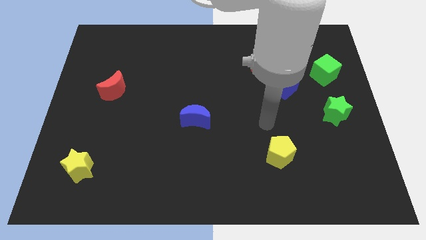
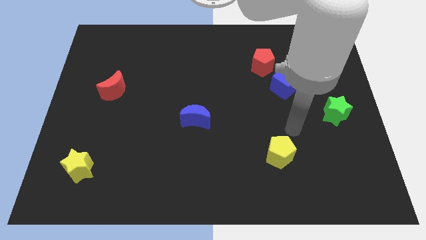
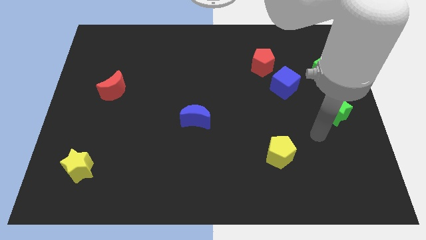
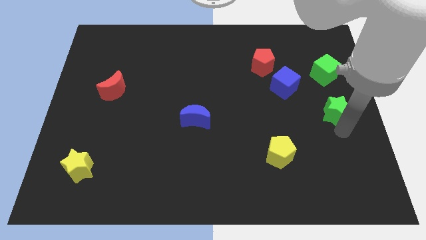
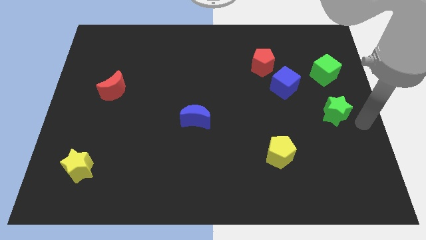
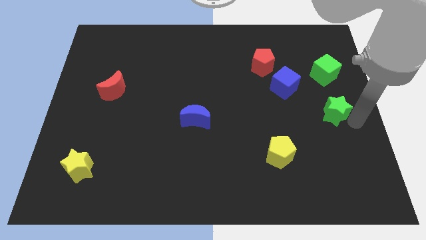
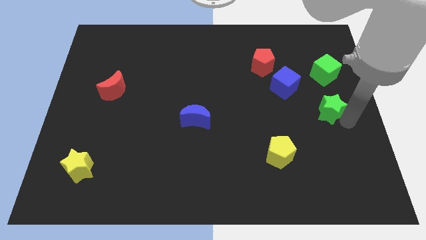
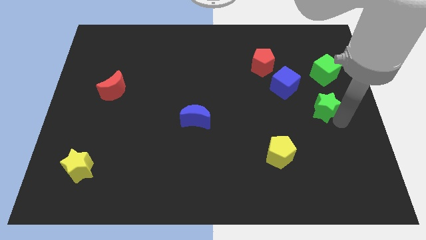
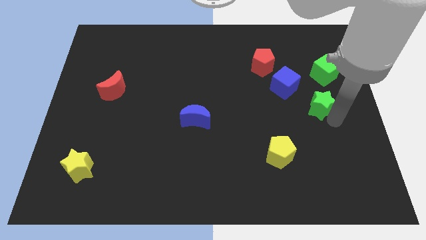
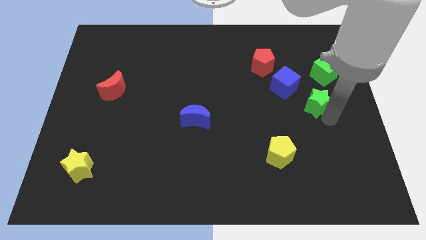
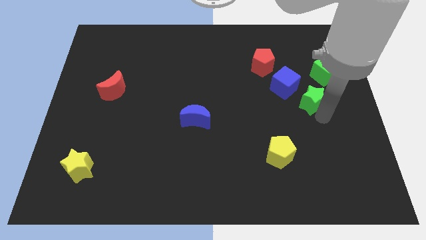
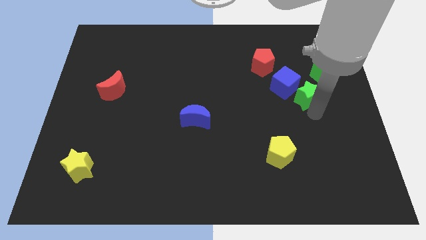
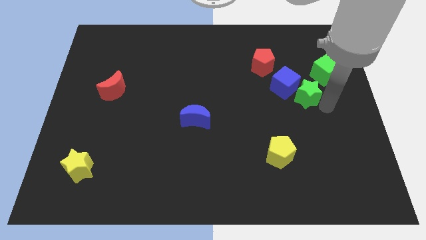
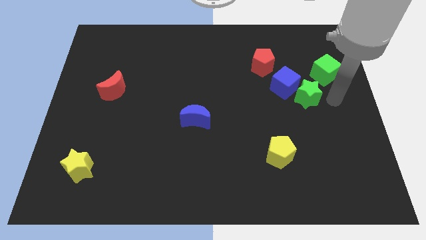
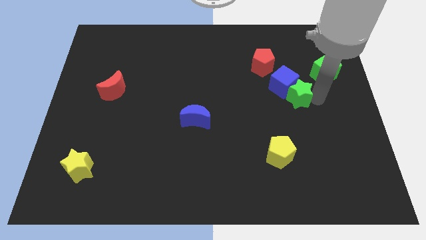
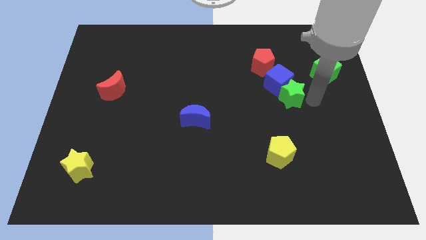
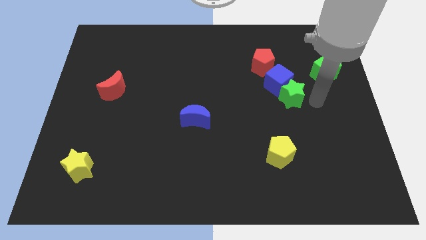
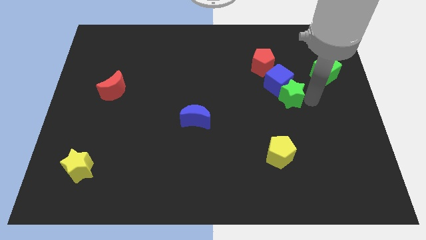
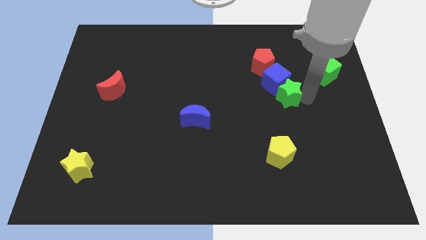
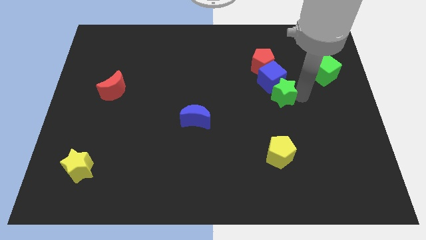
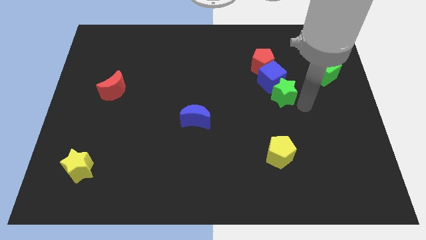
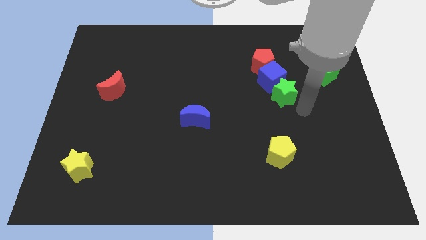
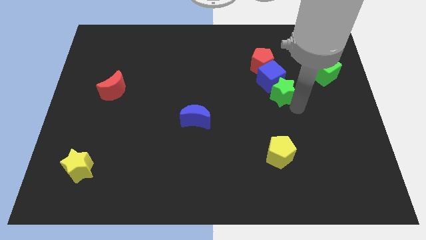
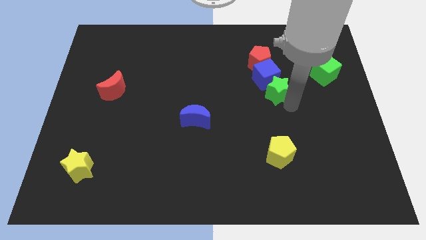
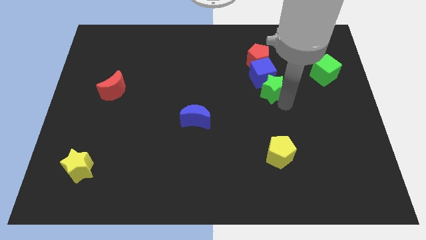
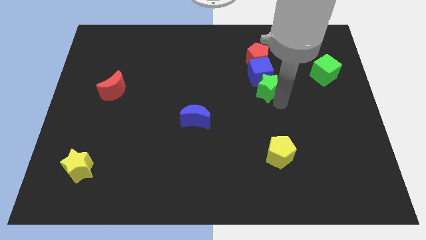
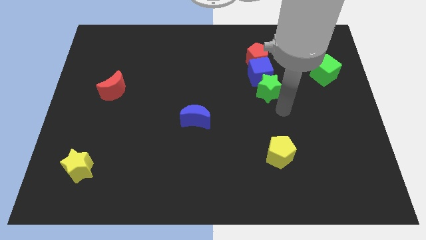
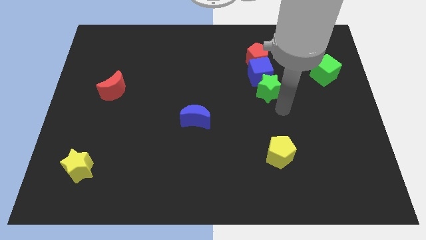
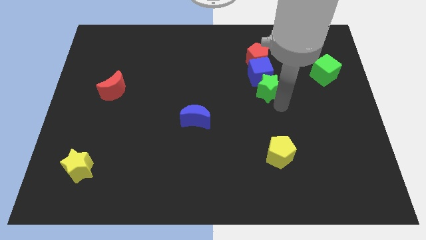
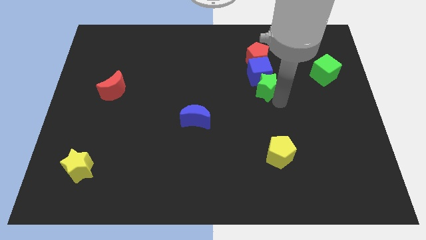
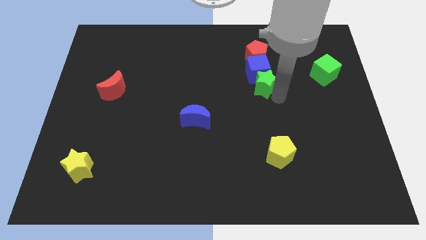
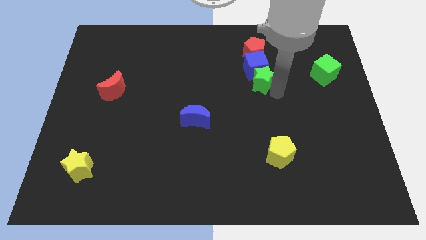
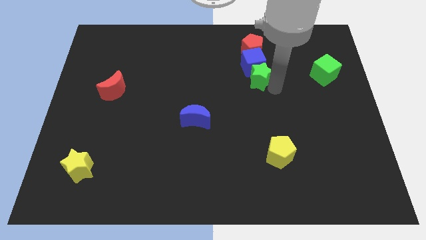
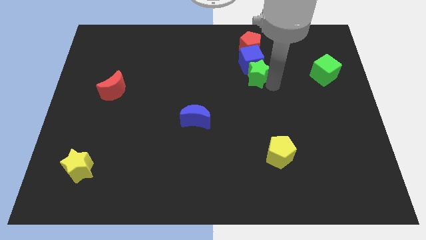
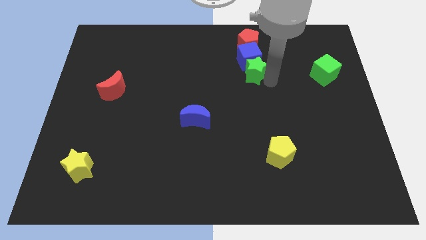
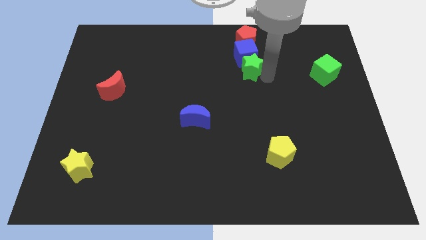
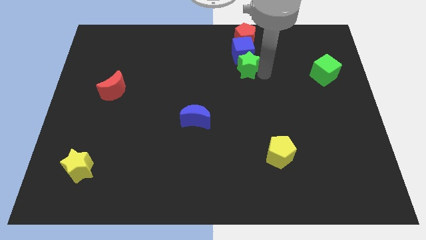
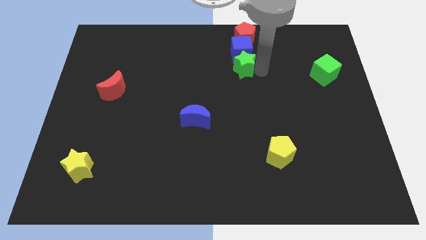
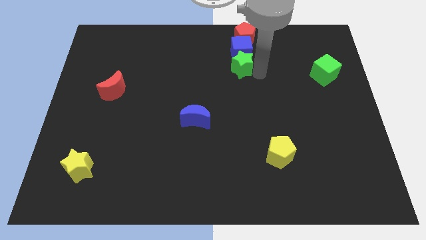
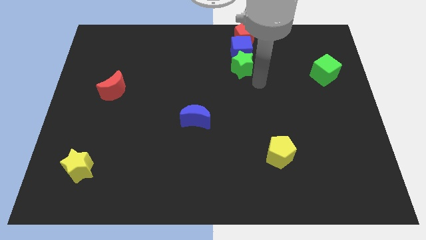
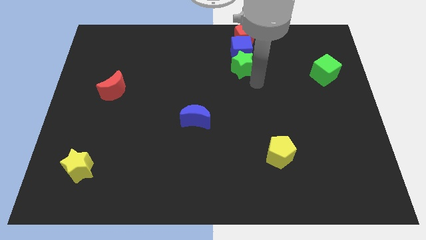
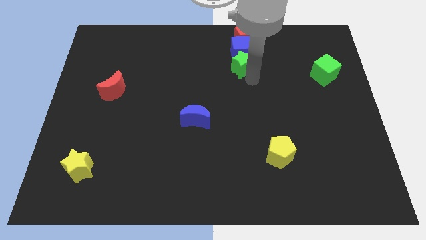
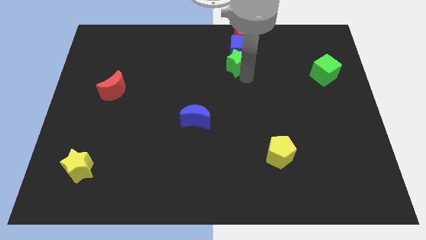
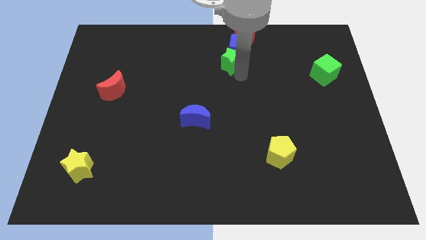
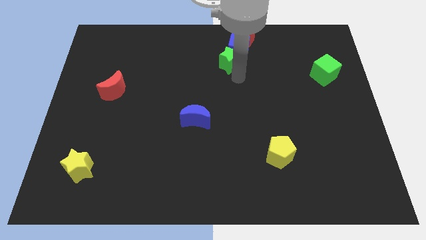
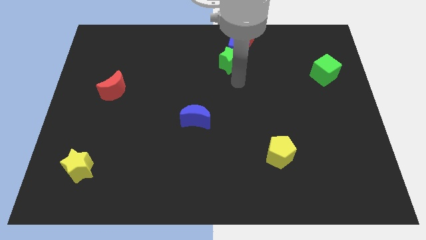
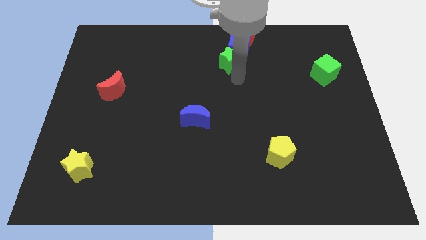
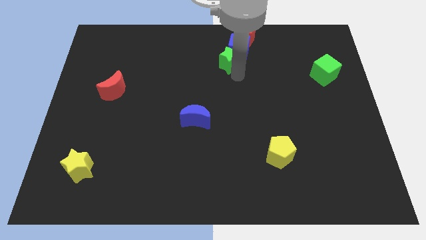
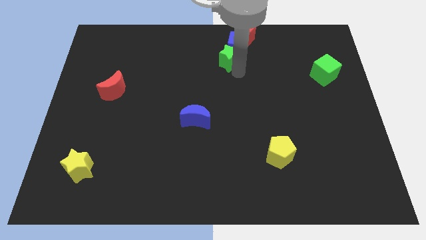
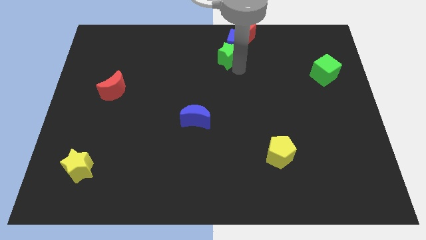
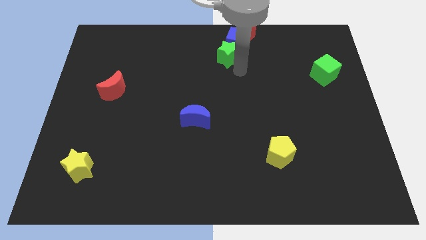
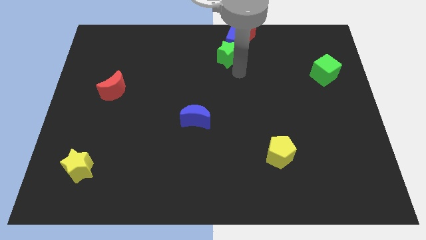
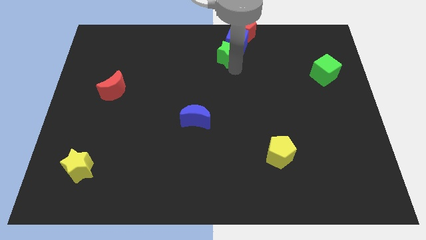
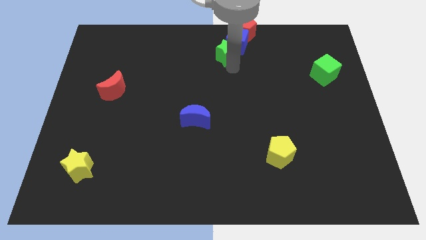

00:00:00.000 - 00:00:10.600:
put the green star to the top

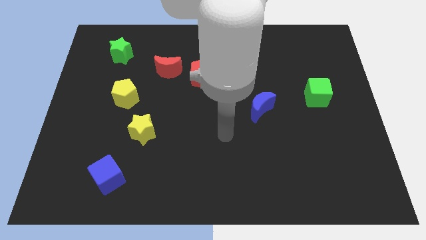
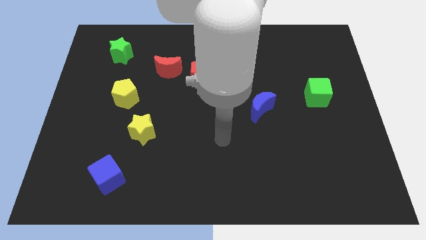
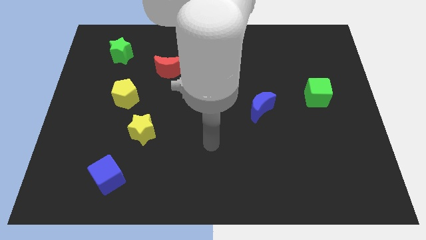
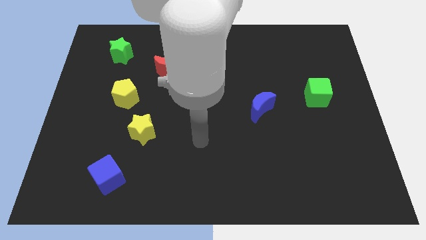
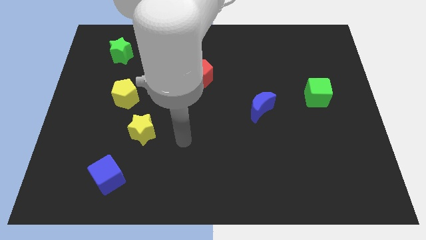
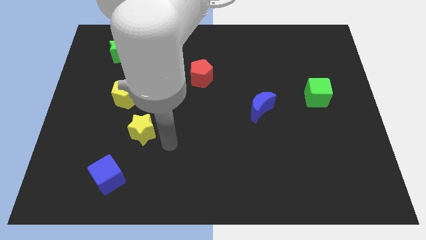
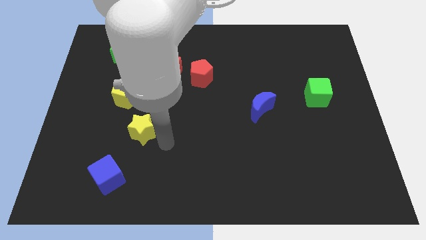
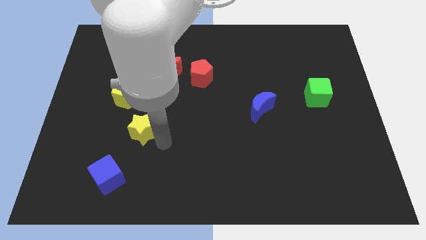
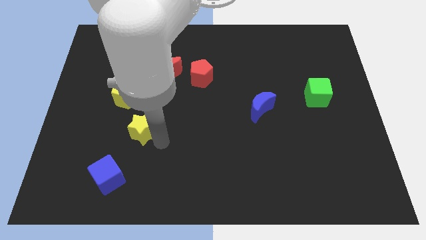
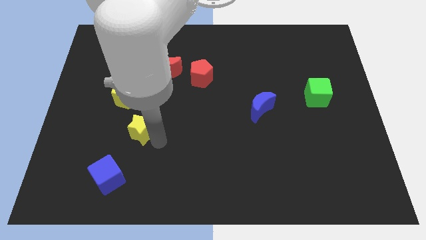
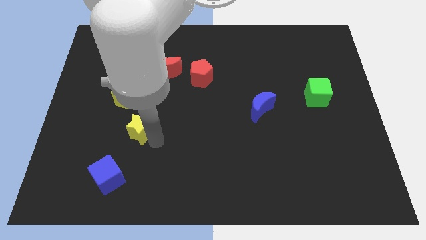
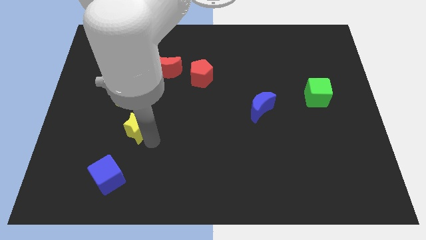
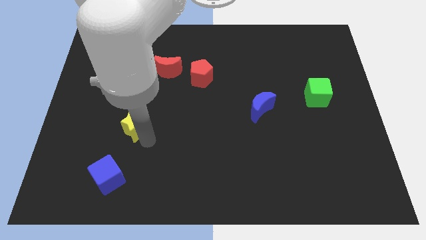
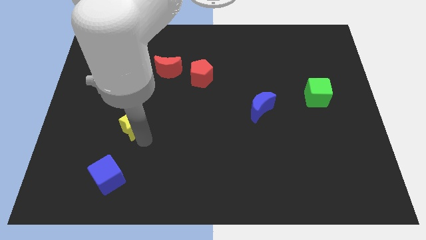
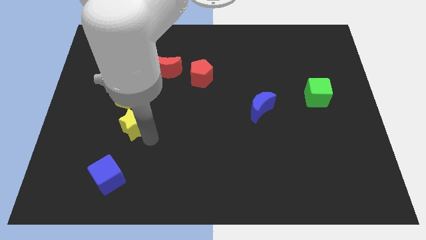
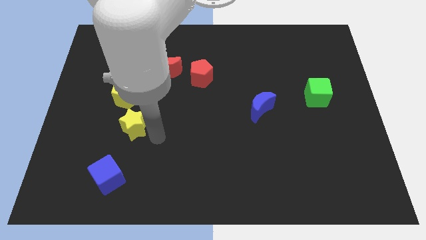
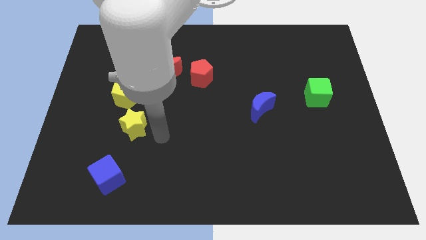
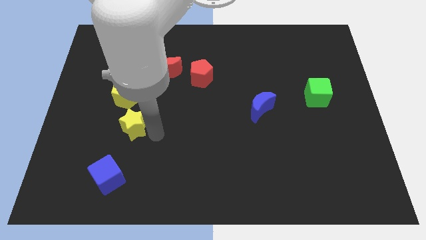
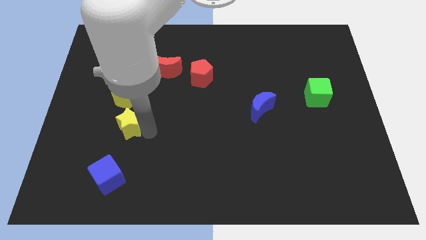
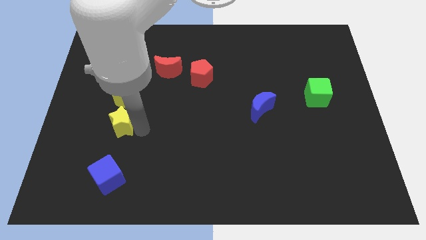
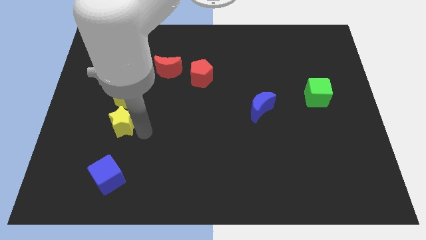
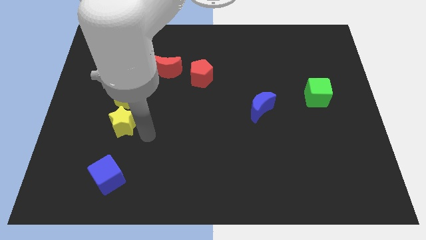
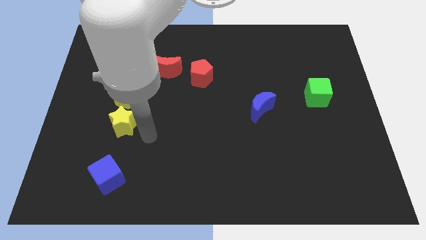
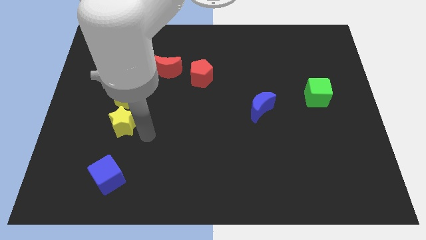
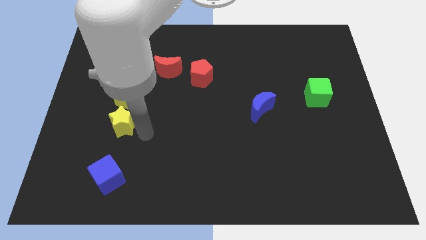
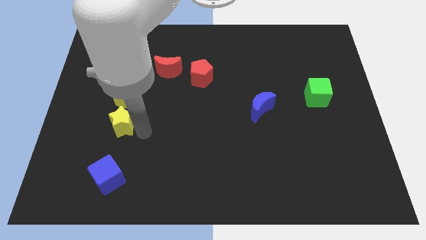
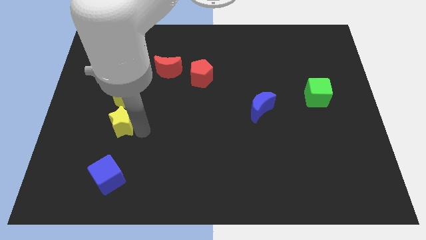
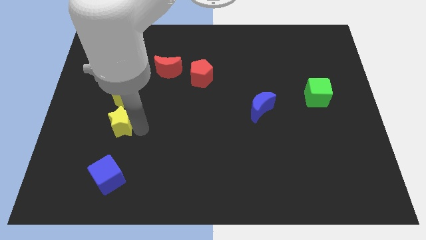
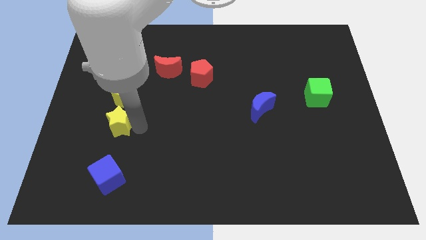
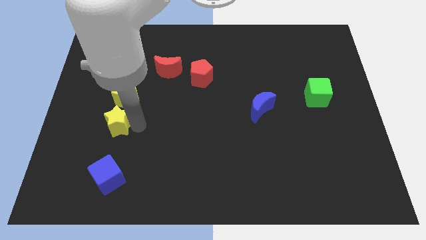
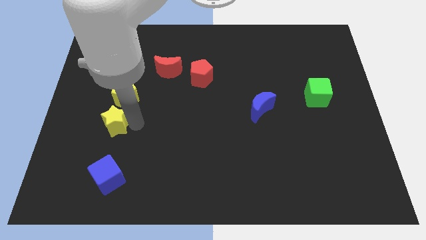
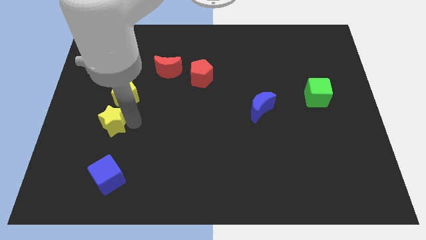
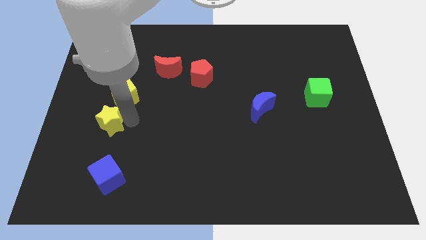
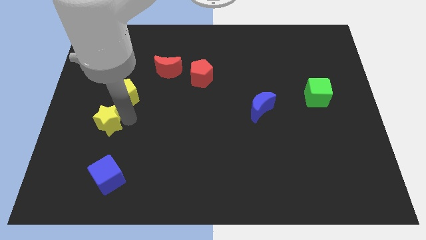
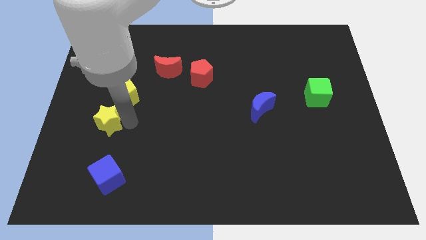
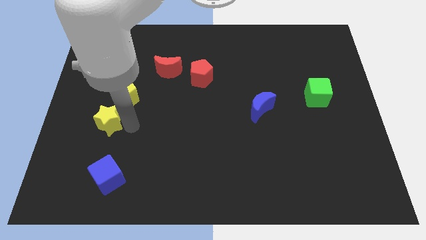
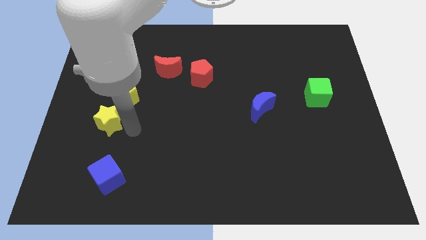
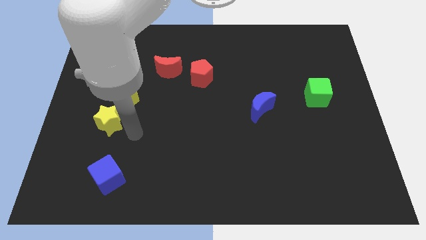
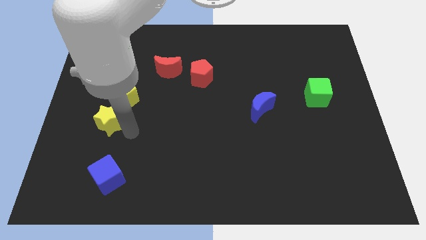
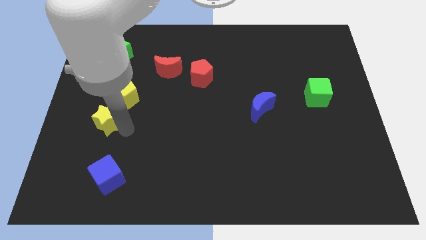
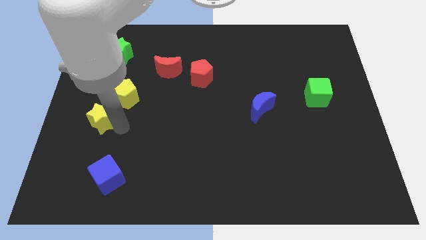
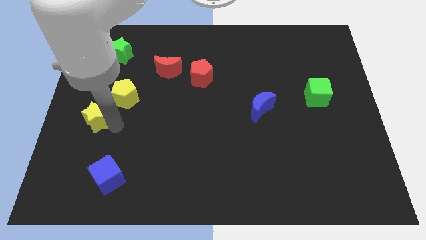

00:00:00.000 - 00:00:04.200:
push the yellow star to the left side
